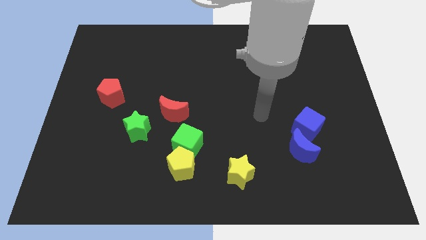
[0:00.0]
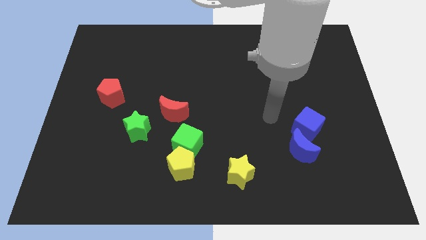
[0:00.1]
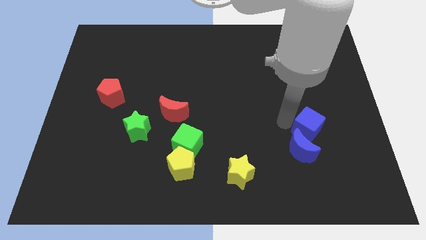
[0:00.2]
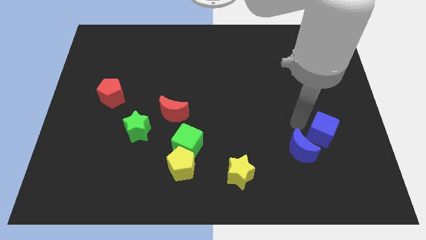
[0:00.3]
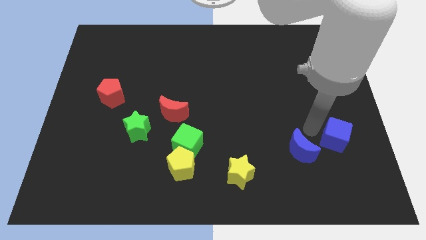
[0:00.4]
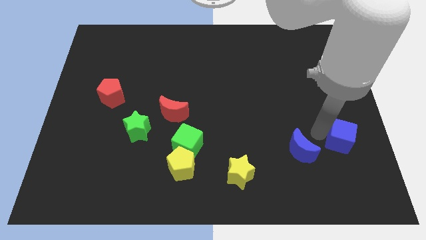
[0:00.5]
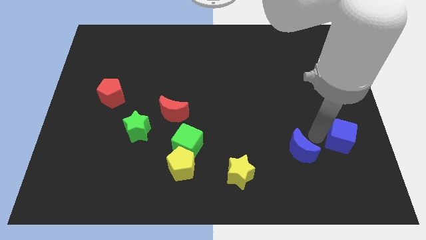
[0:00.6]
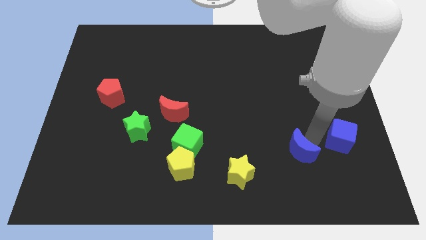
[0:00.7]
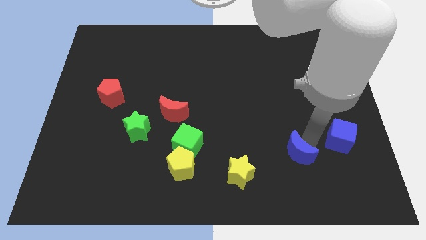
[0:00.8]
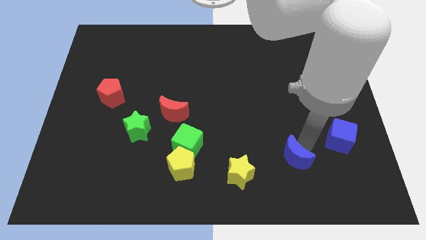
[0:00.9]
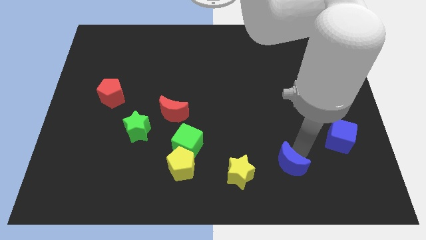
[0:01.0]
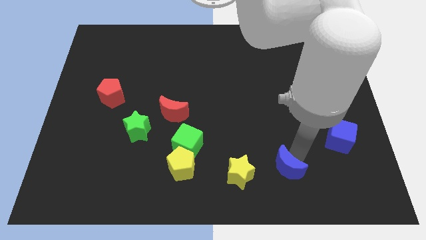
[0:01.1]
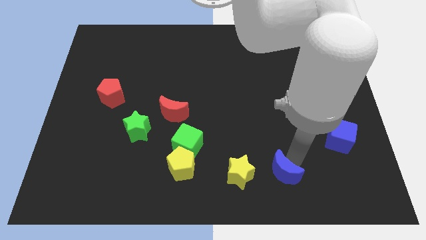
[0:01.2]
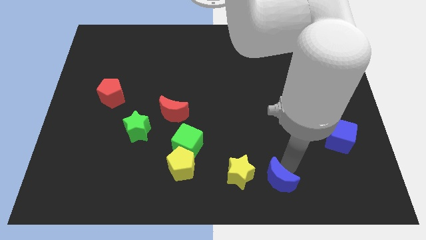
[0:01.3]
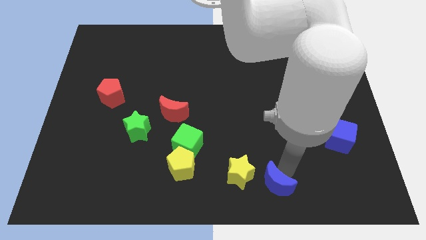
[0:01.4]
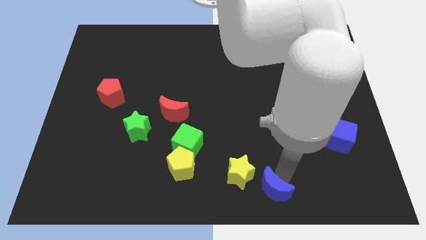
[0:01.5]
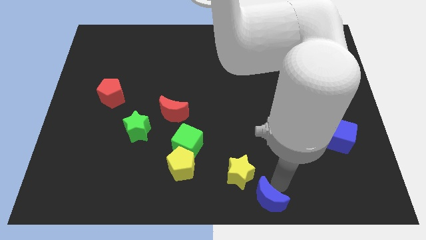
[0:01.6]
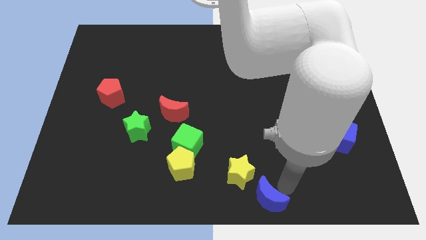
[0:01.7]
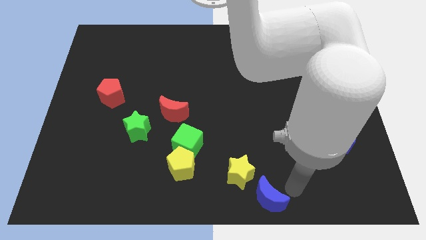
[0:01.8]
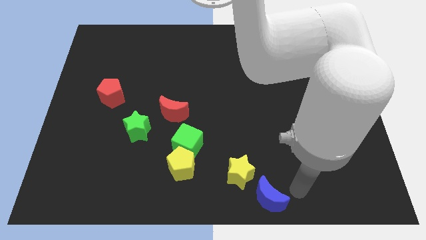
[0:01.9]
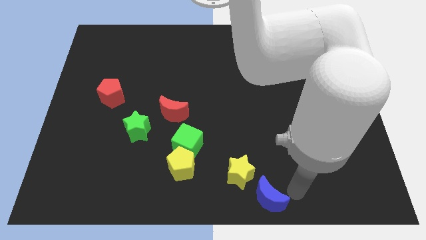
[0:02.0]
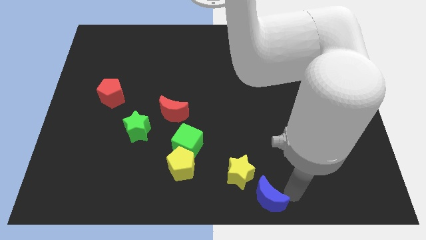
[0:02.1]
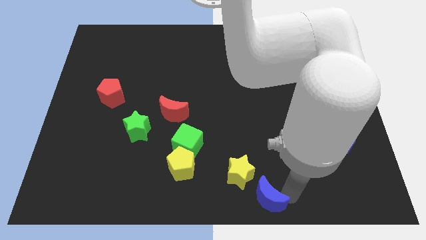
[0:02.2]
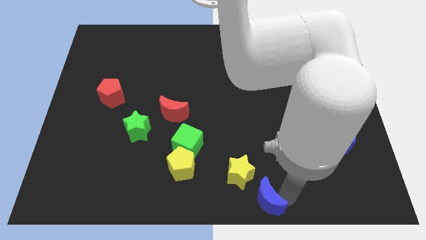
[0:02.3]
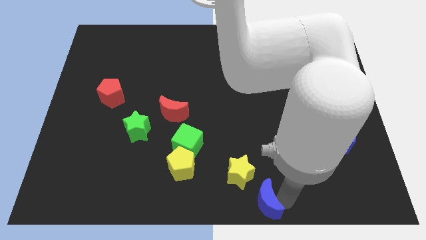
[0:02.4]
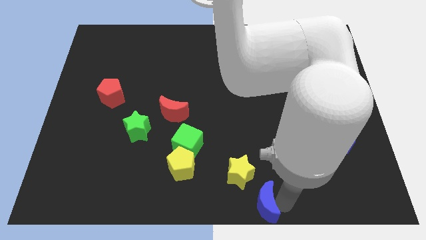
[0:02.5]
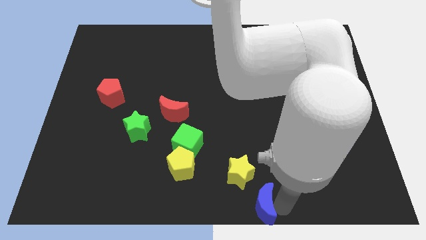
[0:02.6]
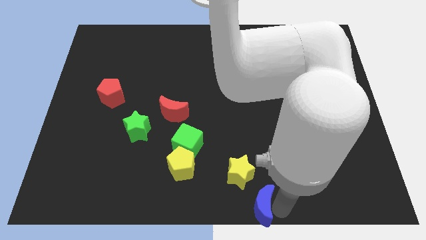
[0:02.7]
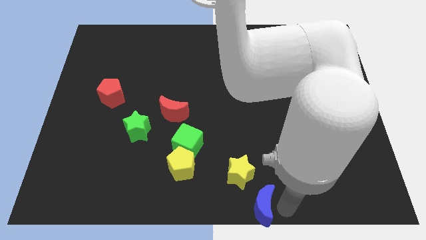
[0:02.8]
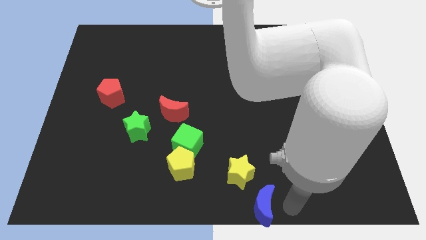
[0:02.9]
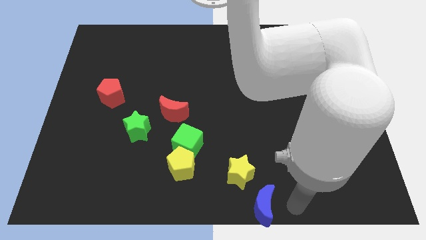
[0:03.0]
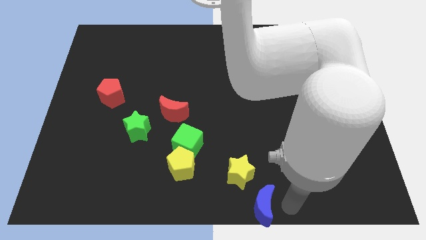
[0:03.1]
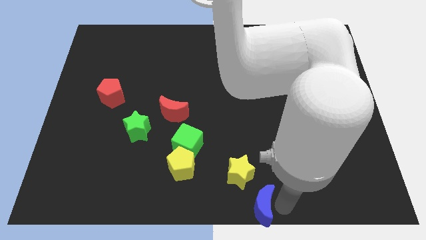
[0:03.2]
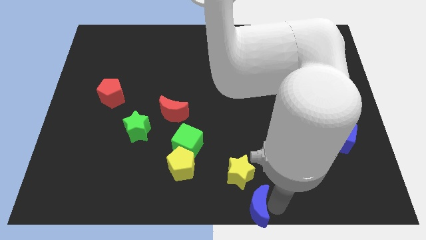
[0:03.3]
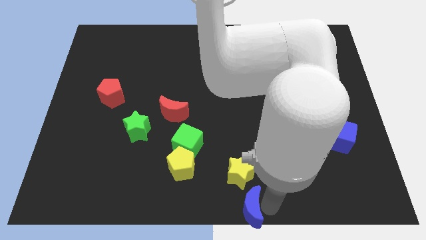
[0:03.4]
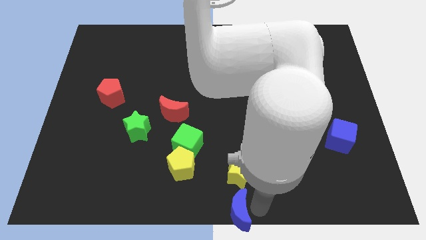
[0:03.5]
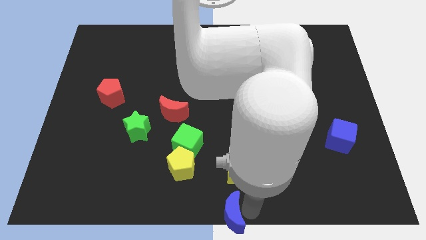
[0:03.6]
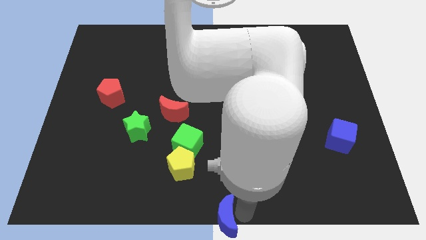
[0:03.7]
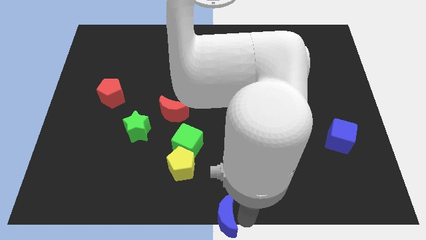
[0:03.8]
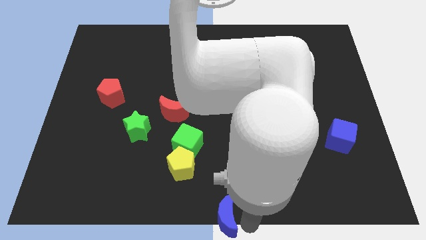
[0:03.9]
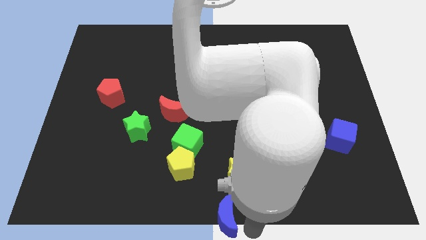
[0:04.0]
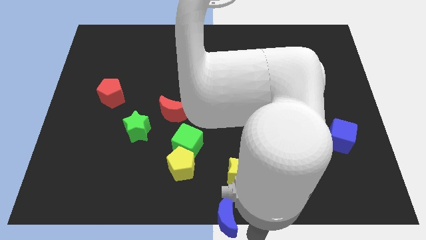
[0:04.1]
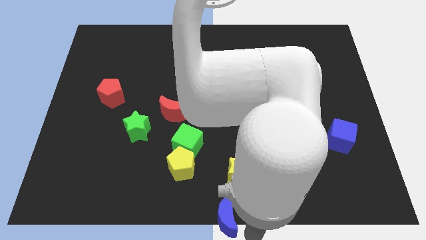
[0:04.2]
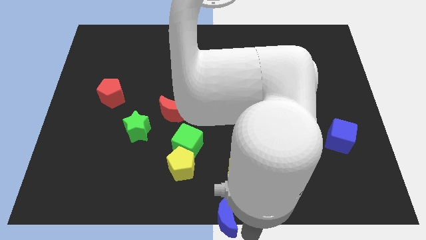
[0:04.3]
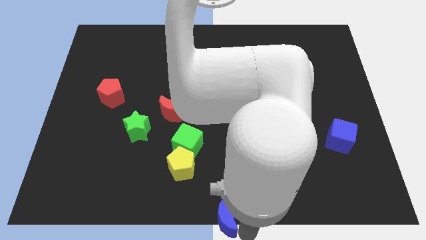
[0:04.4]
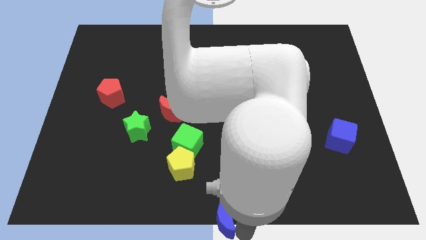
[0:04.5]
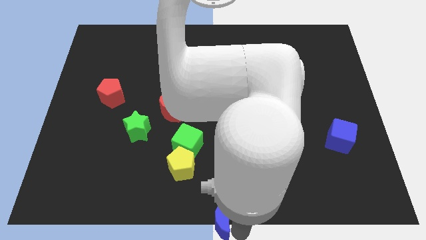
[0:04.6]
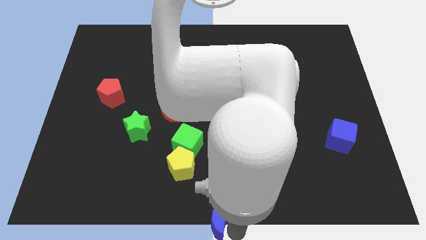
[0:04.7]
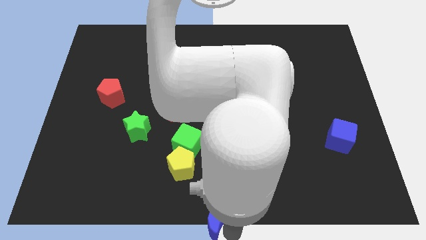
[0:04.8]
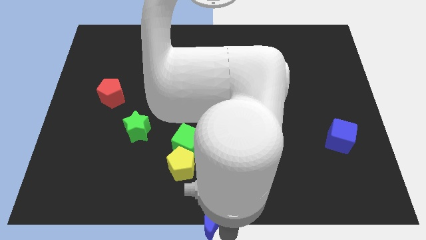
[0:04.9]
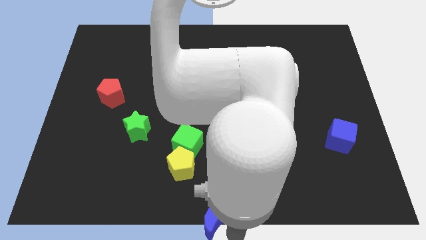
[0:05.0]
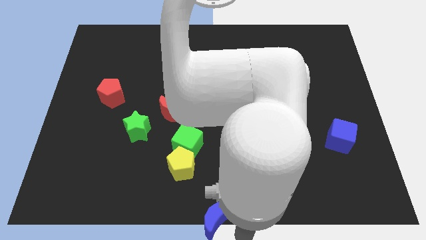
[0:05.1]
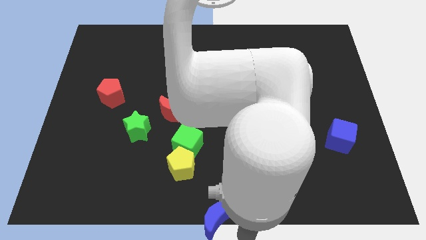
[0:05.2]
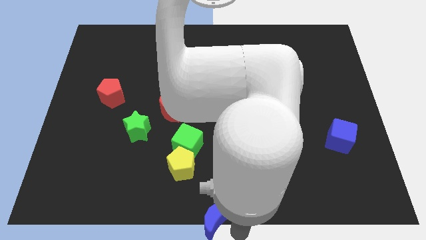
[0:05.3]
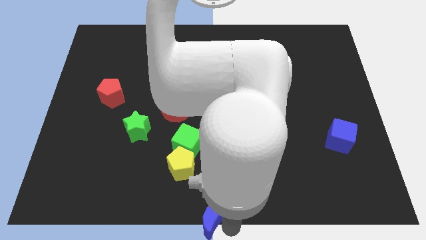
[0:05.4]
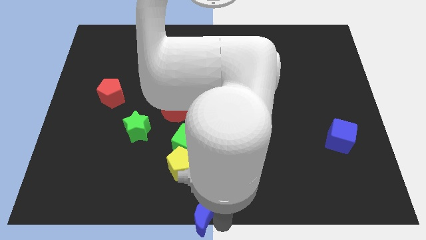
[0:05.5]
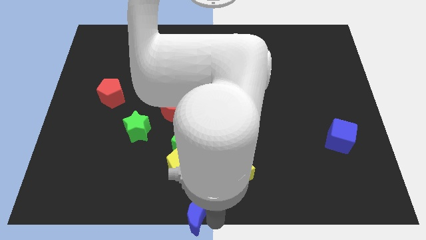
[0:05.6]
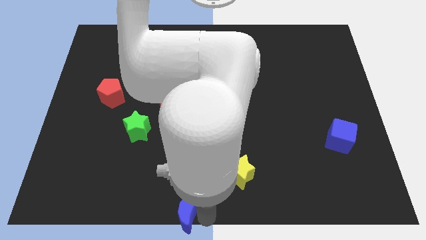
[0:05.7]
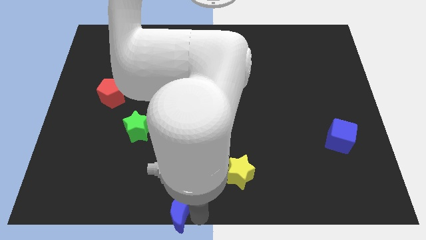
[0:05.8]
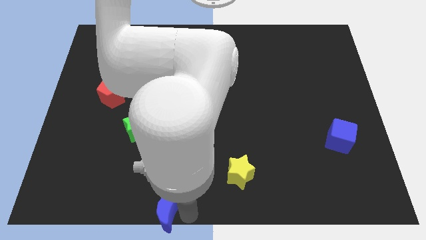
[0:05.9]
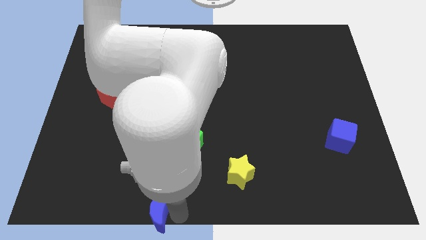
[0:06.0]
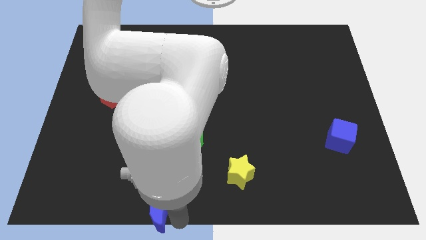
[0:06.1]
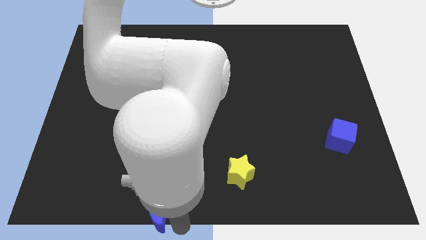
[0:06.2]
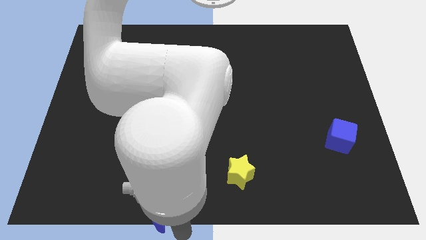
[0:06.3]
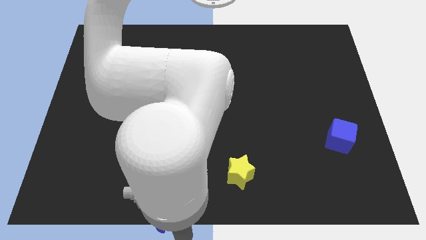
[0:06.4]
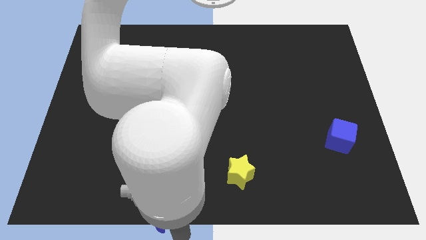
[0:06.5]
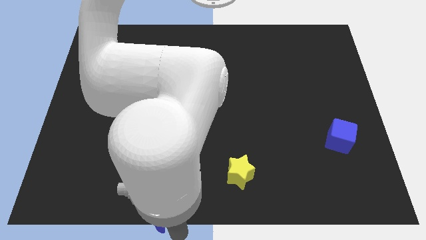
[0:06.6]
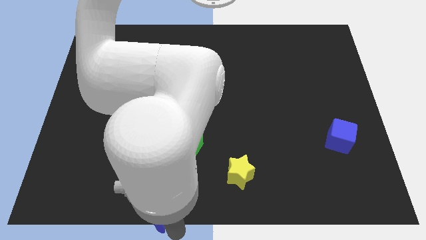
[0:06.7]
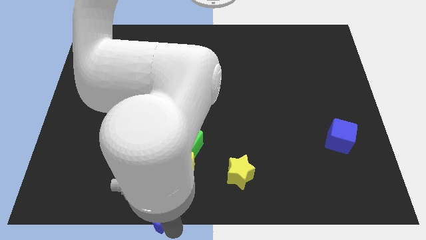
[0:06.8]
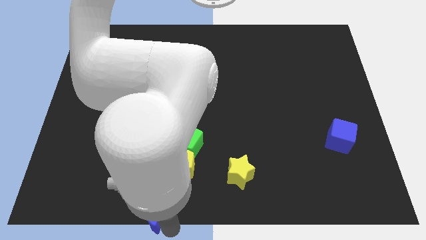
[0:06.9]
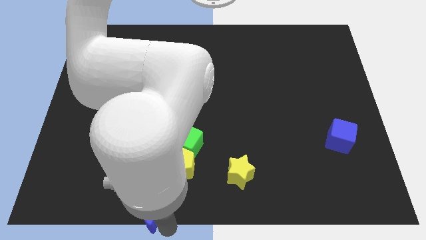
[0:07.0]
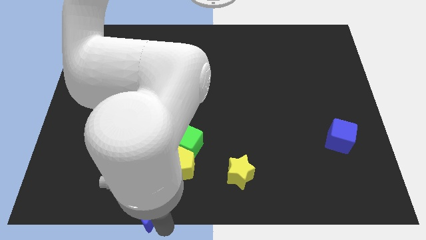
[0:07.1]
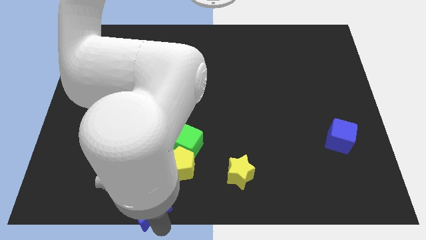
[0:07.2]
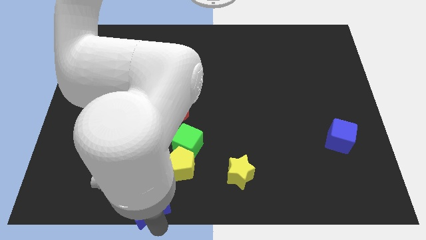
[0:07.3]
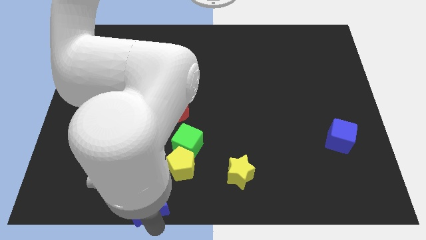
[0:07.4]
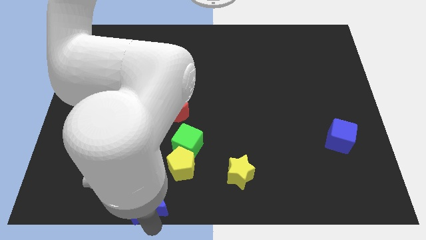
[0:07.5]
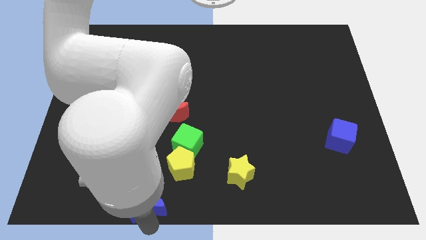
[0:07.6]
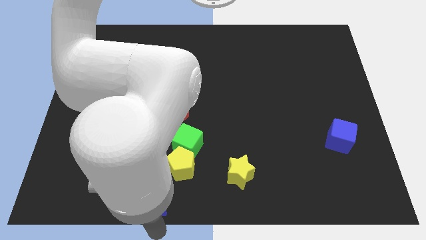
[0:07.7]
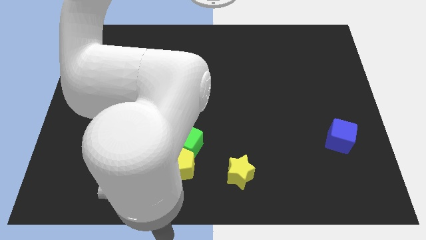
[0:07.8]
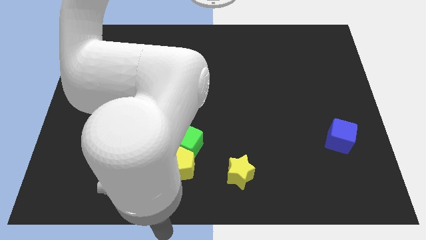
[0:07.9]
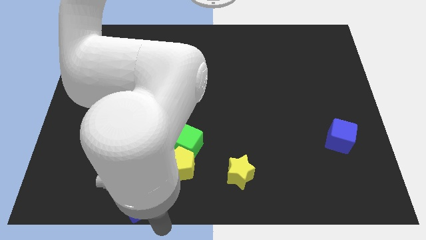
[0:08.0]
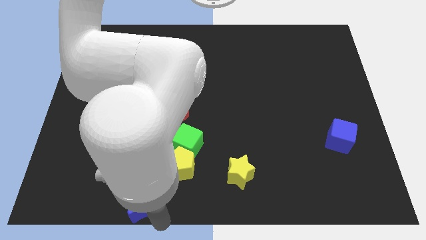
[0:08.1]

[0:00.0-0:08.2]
slide the blue moon left
